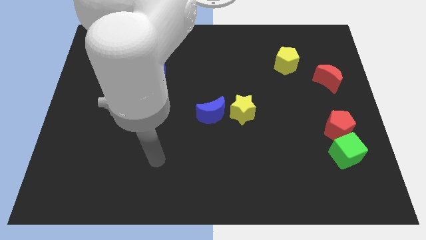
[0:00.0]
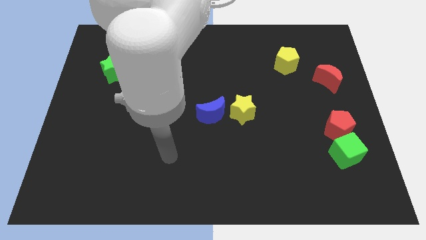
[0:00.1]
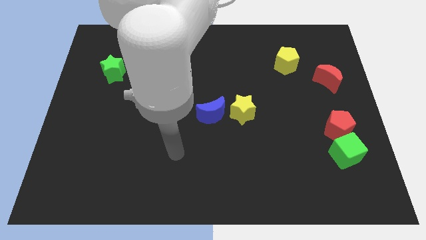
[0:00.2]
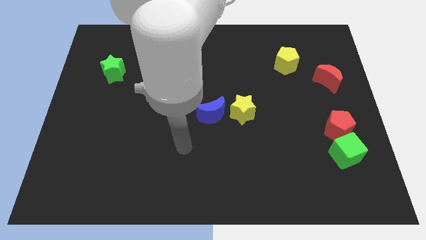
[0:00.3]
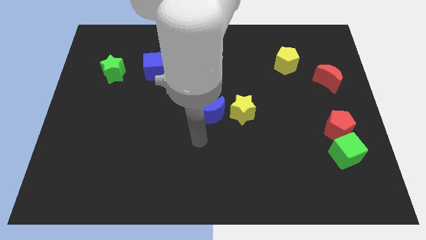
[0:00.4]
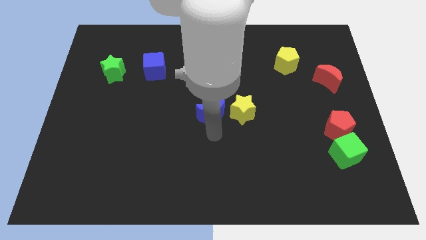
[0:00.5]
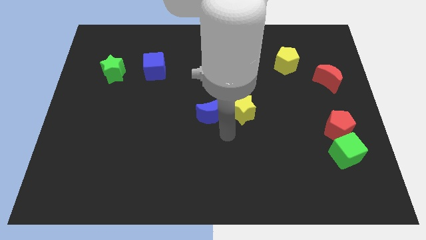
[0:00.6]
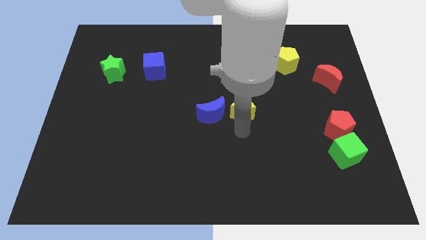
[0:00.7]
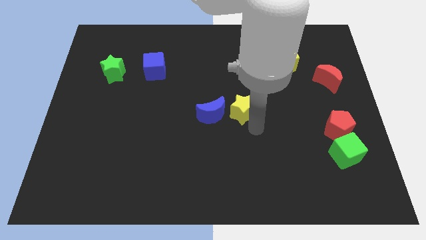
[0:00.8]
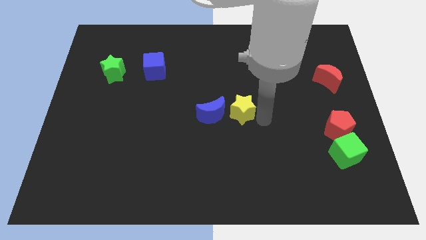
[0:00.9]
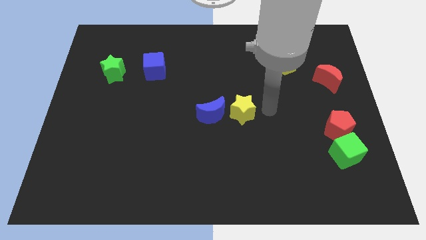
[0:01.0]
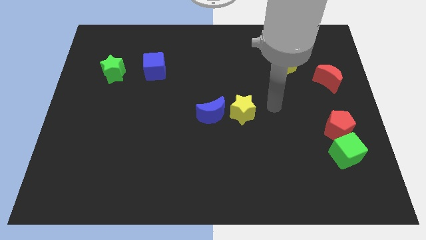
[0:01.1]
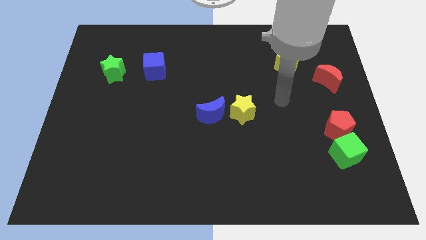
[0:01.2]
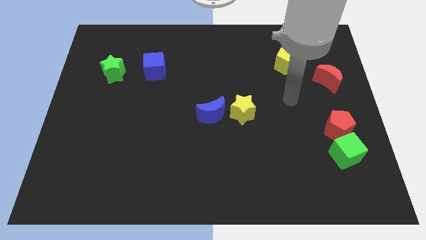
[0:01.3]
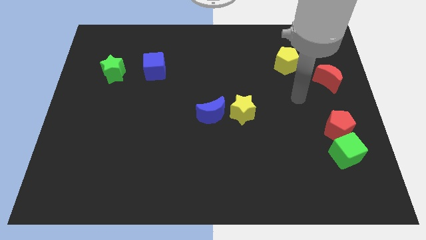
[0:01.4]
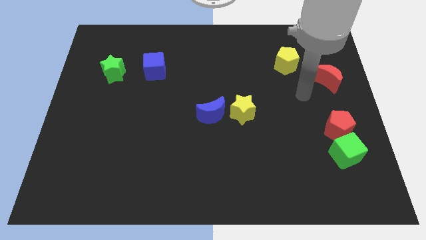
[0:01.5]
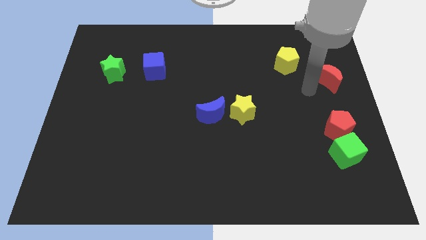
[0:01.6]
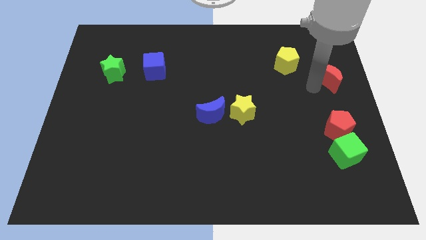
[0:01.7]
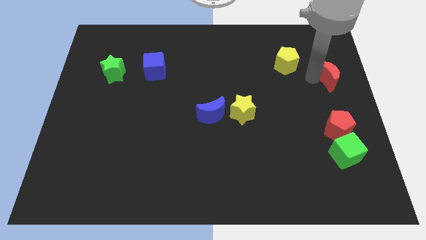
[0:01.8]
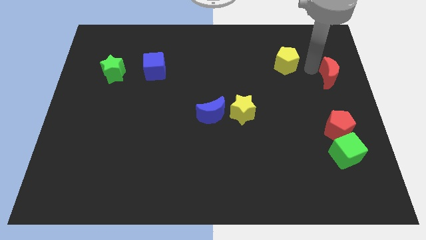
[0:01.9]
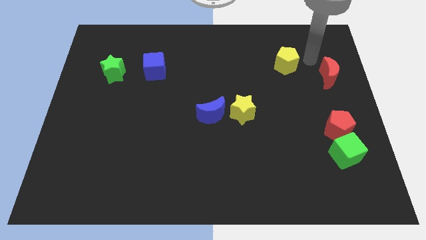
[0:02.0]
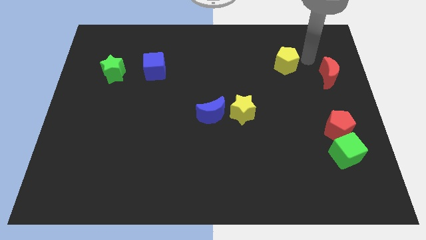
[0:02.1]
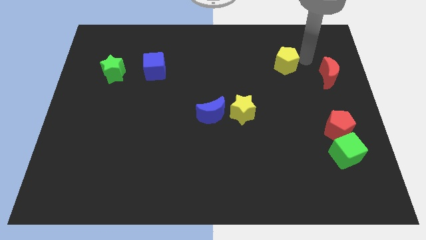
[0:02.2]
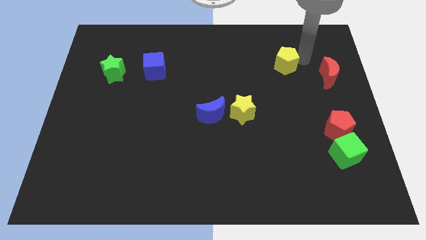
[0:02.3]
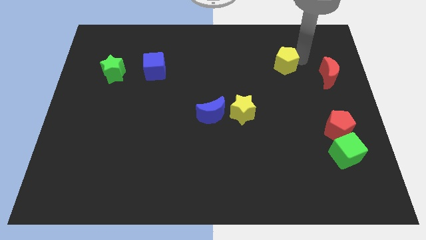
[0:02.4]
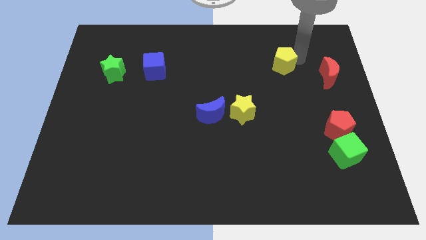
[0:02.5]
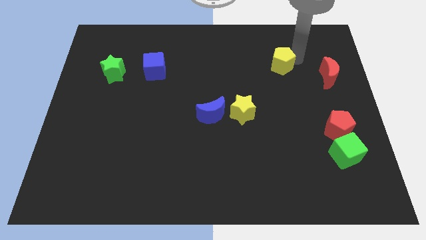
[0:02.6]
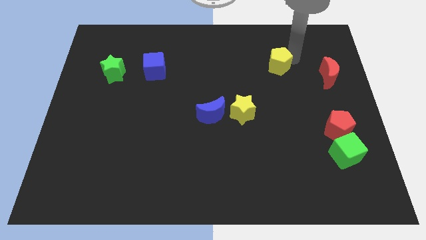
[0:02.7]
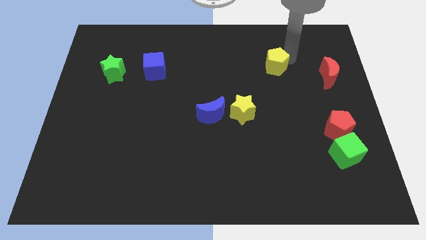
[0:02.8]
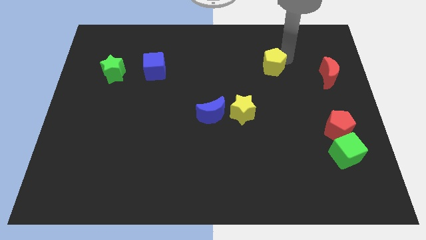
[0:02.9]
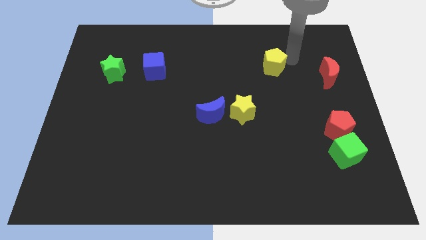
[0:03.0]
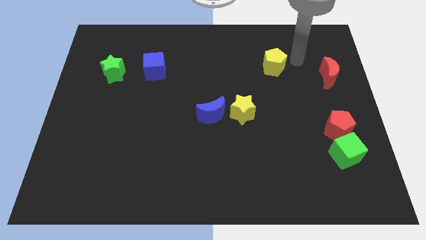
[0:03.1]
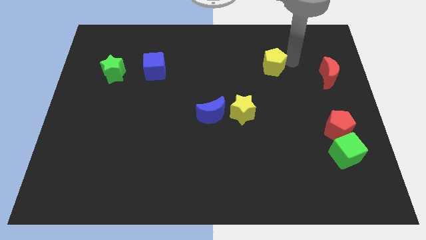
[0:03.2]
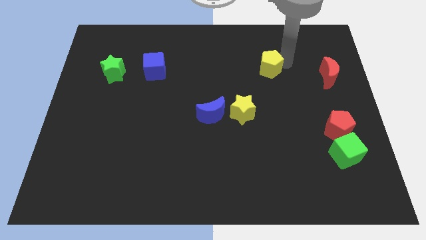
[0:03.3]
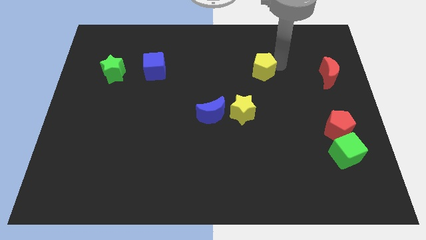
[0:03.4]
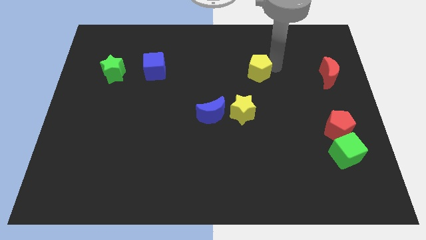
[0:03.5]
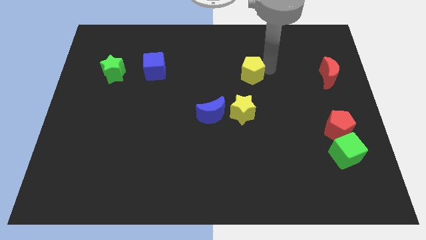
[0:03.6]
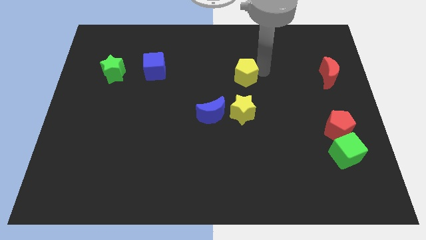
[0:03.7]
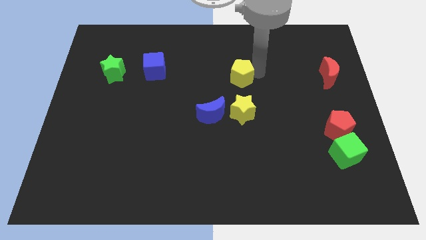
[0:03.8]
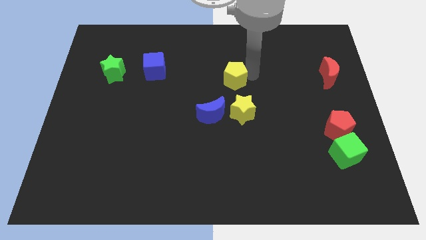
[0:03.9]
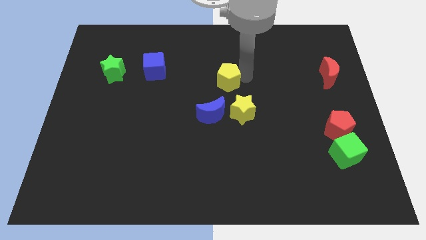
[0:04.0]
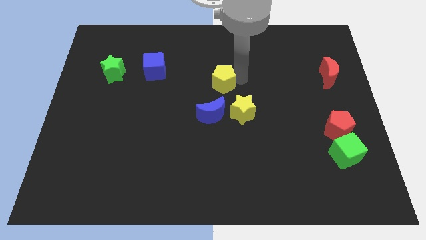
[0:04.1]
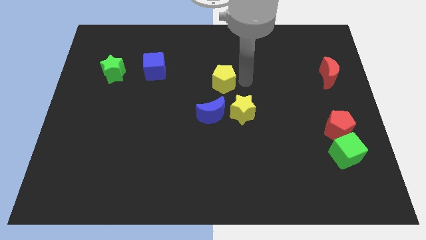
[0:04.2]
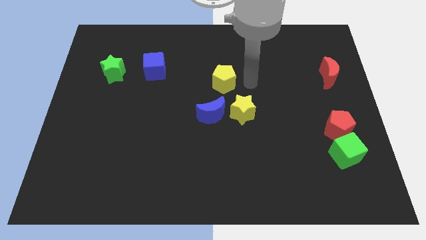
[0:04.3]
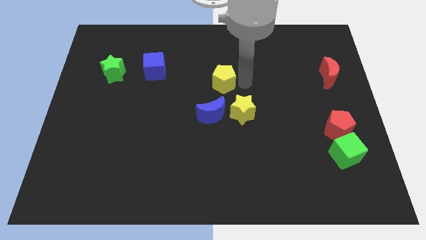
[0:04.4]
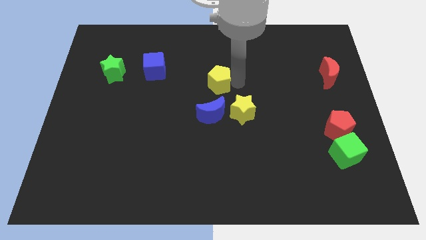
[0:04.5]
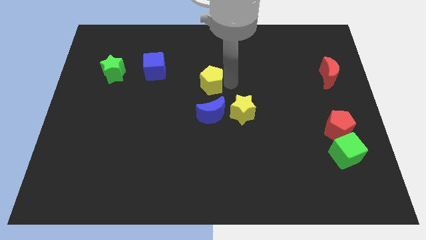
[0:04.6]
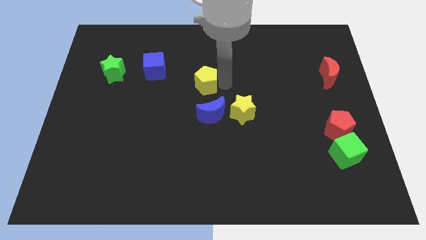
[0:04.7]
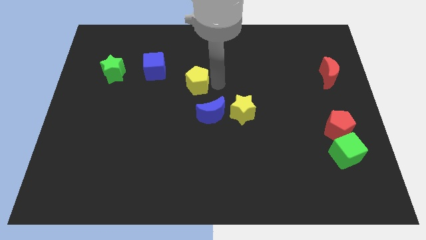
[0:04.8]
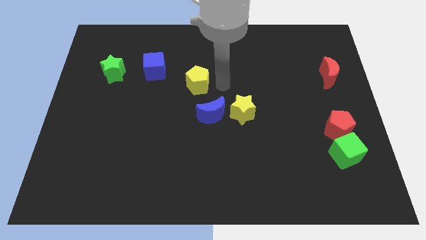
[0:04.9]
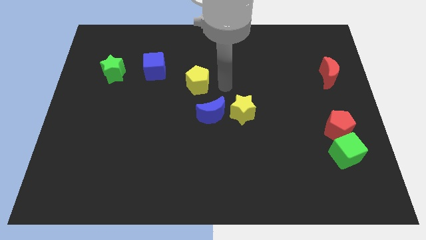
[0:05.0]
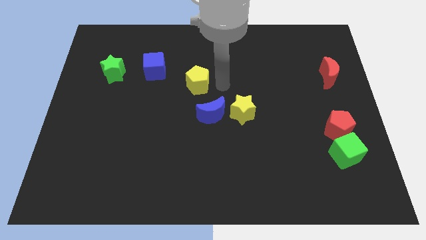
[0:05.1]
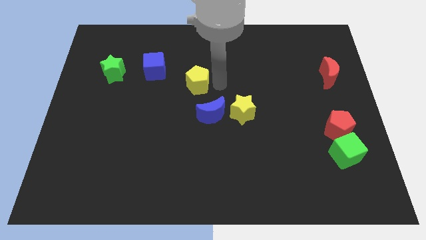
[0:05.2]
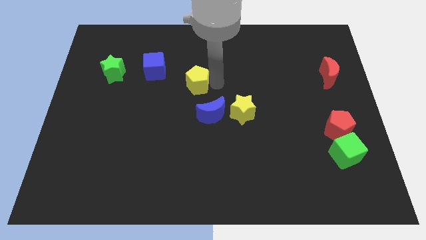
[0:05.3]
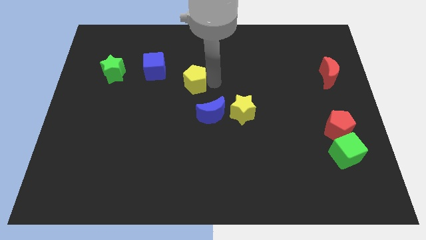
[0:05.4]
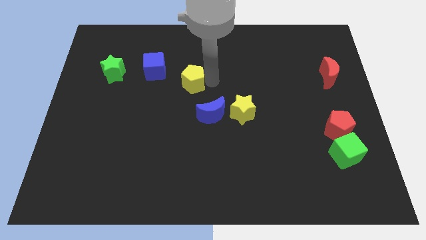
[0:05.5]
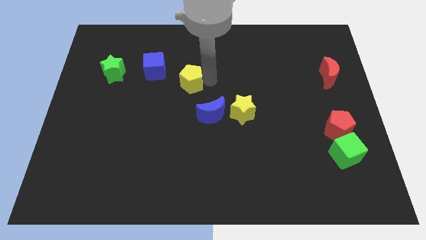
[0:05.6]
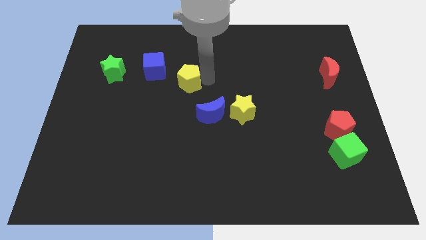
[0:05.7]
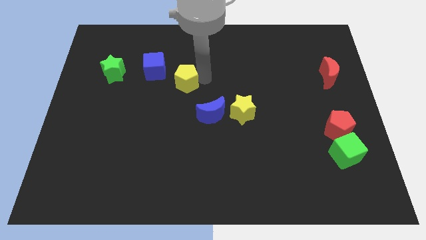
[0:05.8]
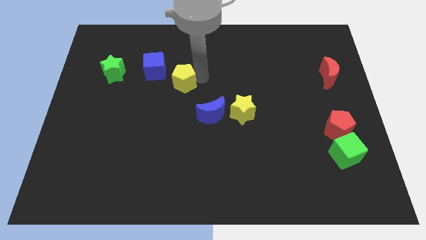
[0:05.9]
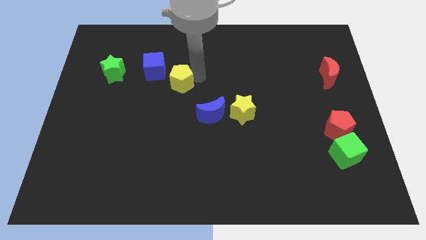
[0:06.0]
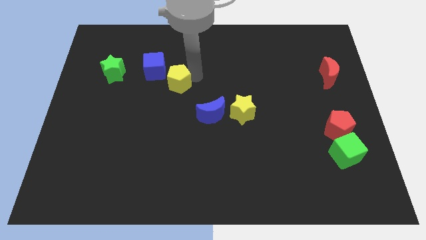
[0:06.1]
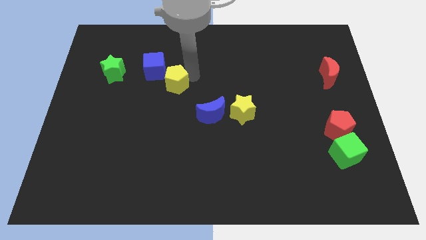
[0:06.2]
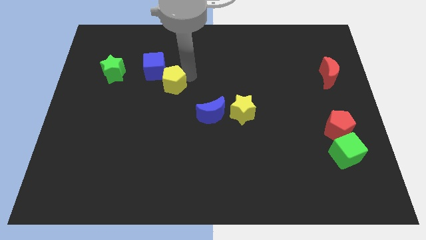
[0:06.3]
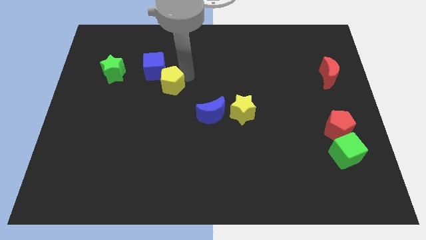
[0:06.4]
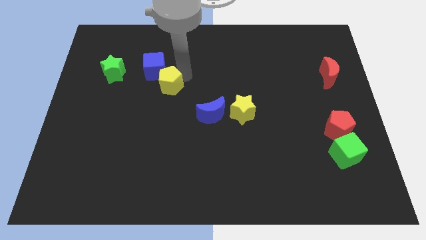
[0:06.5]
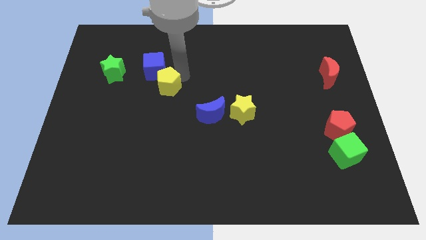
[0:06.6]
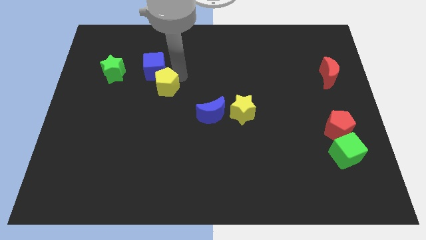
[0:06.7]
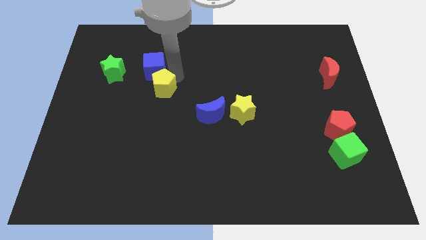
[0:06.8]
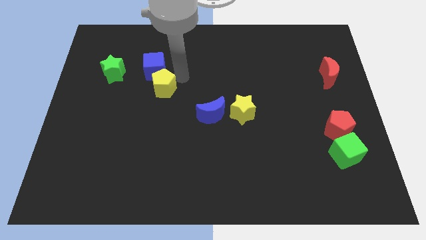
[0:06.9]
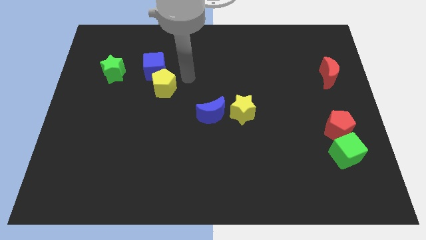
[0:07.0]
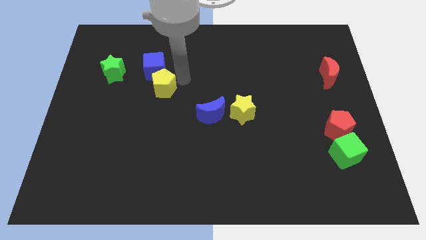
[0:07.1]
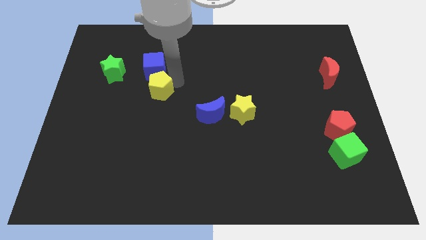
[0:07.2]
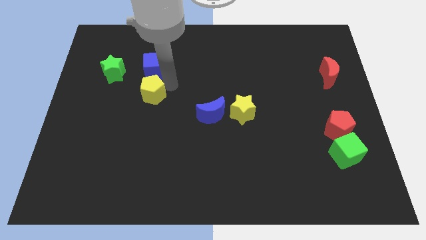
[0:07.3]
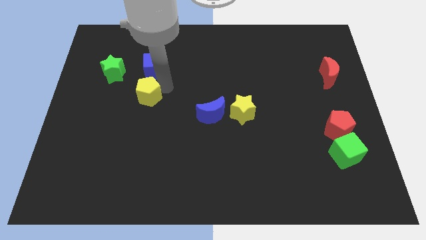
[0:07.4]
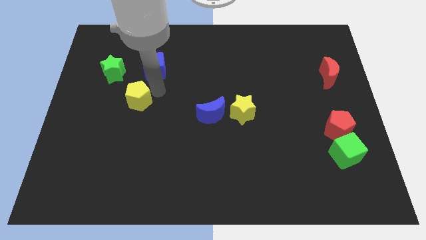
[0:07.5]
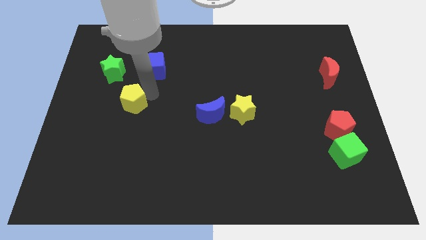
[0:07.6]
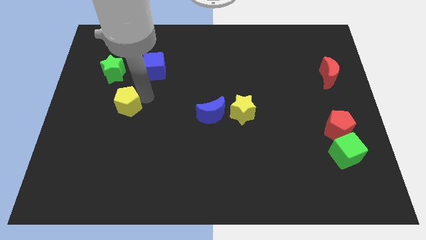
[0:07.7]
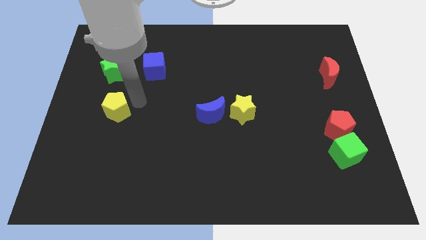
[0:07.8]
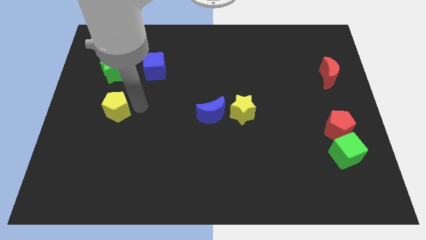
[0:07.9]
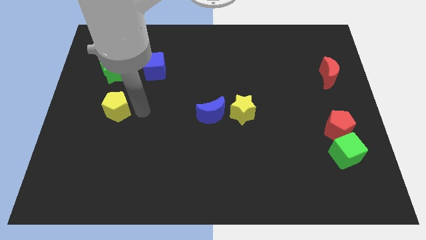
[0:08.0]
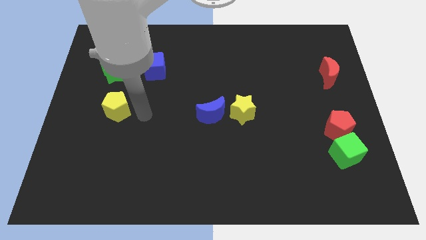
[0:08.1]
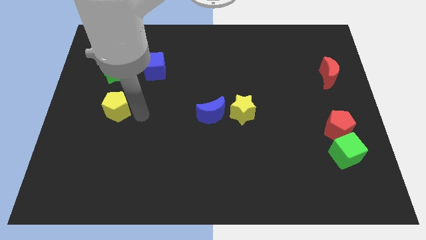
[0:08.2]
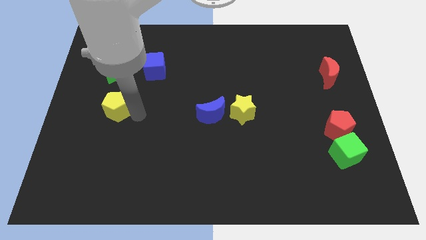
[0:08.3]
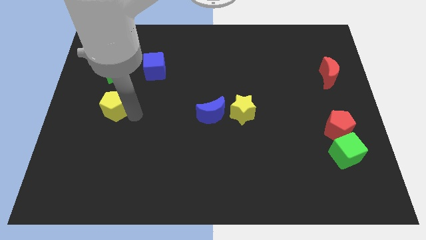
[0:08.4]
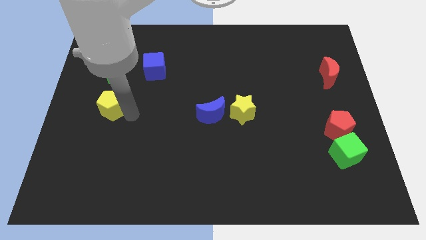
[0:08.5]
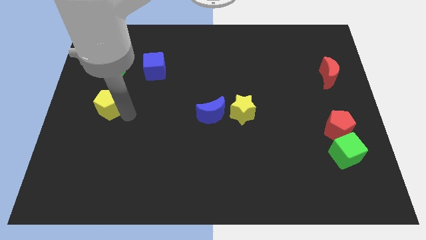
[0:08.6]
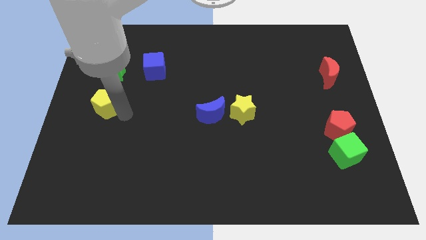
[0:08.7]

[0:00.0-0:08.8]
move the yellow pentagon to the left side
